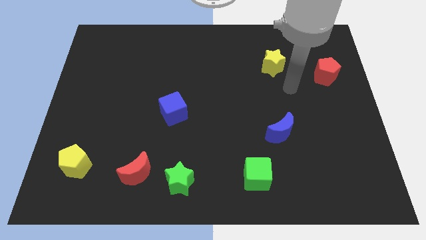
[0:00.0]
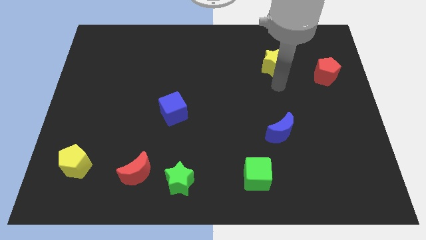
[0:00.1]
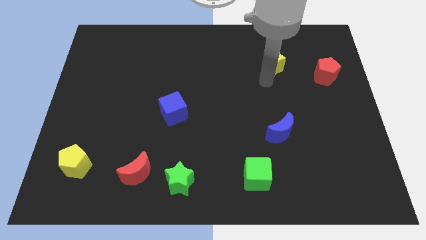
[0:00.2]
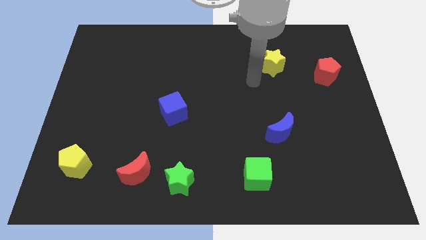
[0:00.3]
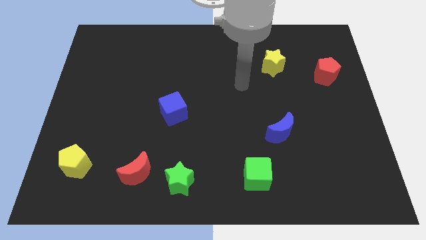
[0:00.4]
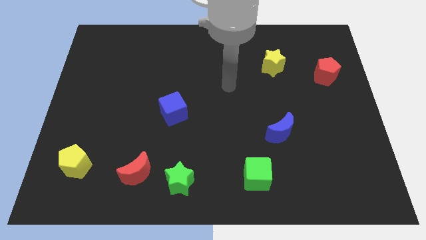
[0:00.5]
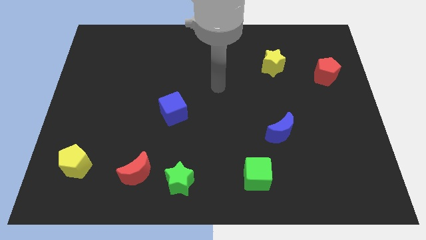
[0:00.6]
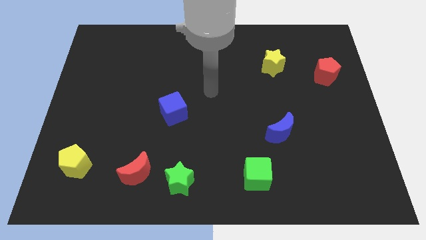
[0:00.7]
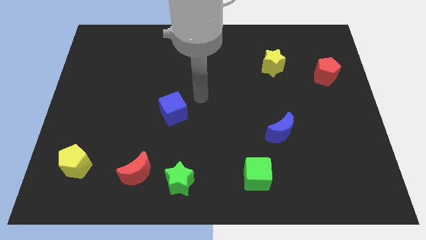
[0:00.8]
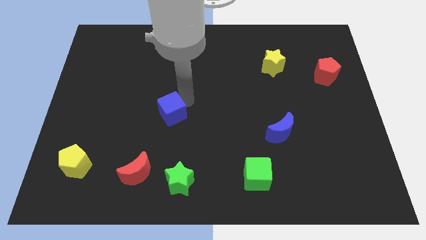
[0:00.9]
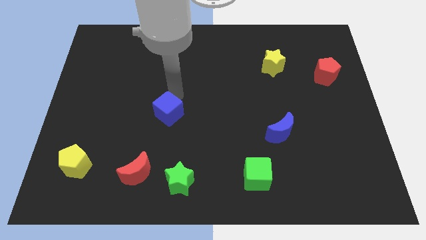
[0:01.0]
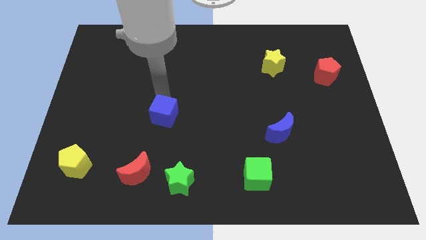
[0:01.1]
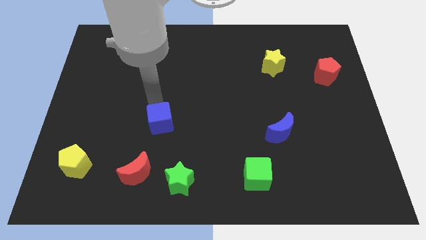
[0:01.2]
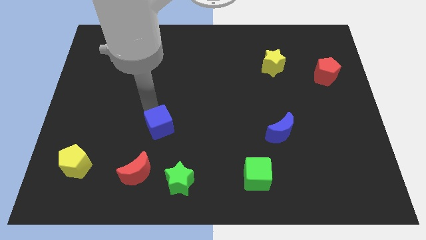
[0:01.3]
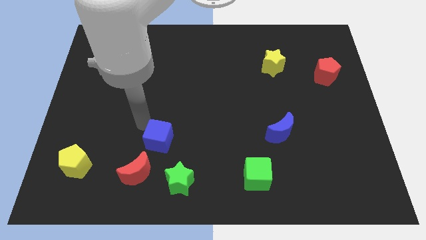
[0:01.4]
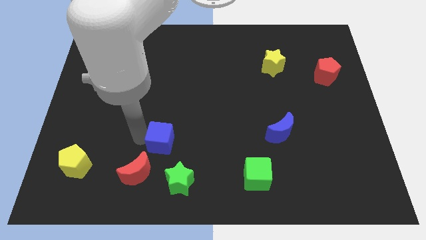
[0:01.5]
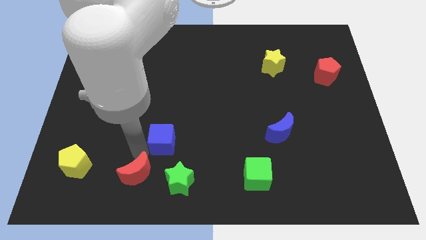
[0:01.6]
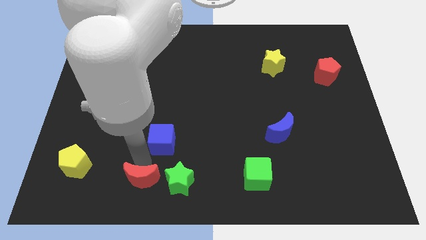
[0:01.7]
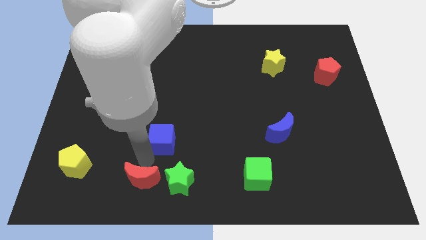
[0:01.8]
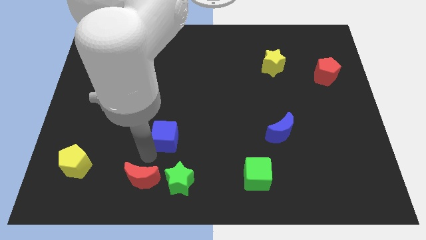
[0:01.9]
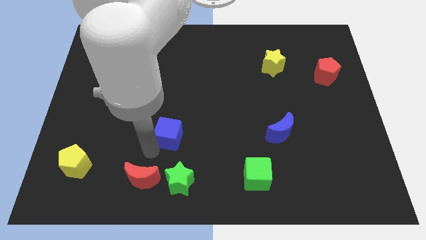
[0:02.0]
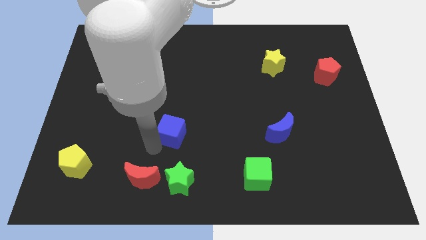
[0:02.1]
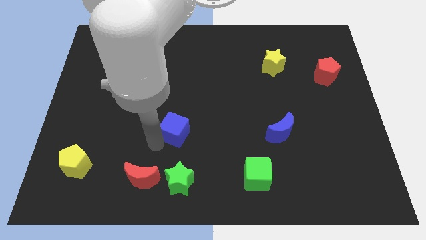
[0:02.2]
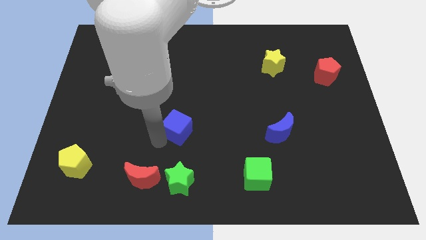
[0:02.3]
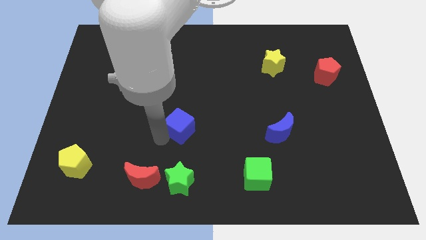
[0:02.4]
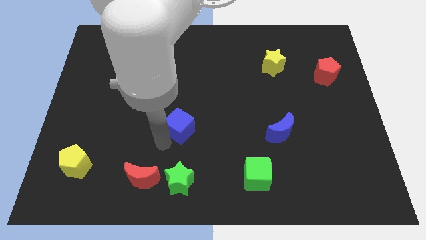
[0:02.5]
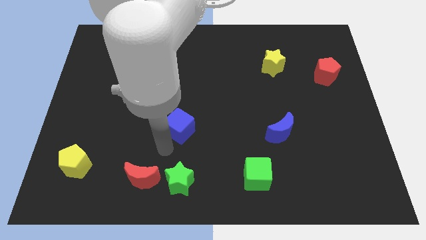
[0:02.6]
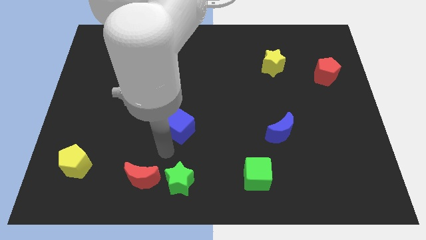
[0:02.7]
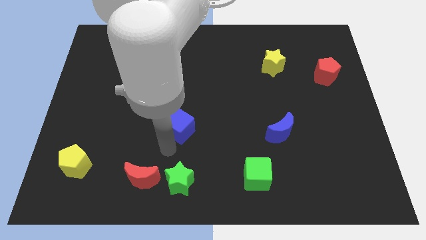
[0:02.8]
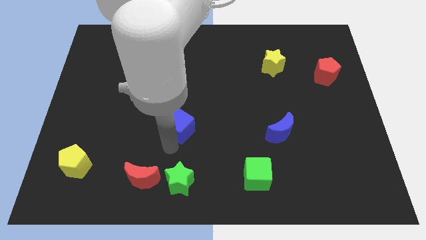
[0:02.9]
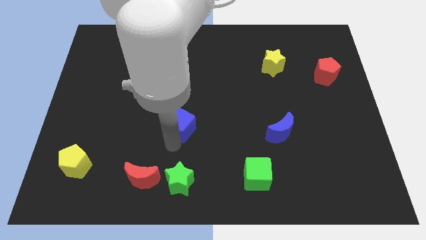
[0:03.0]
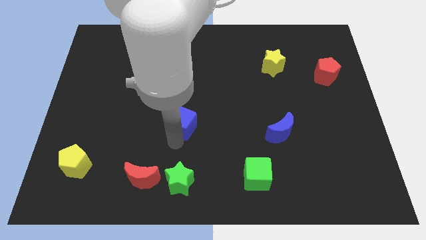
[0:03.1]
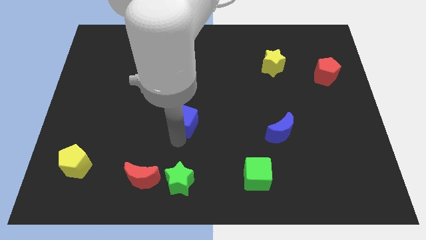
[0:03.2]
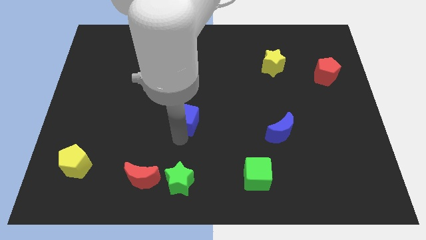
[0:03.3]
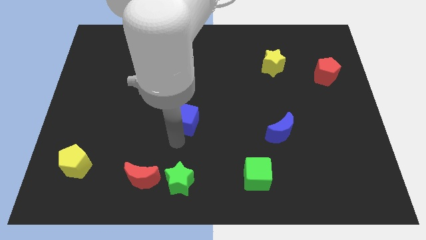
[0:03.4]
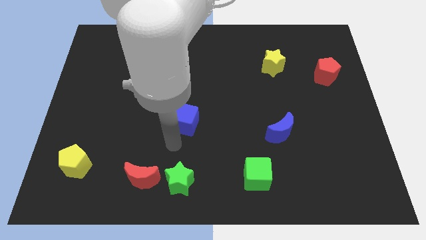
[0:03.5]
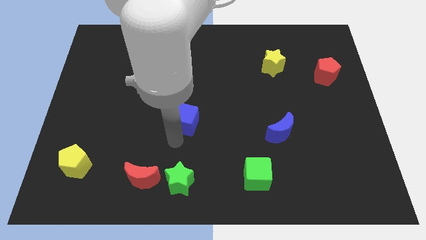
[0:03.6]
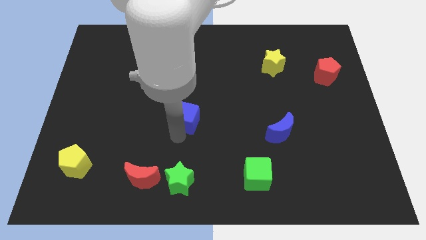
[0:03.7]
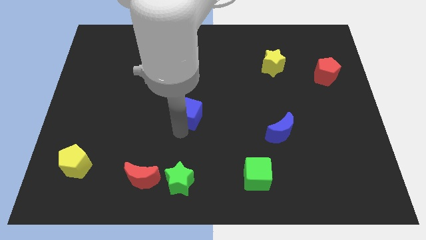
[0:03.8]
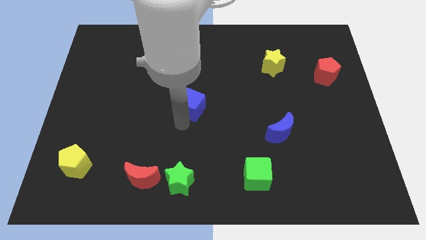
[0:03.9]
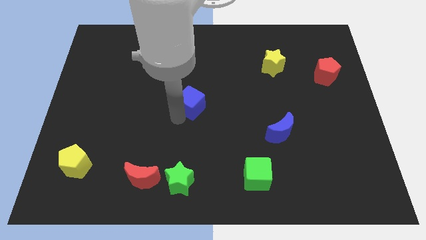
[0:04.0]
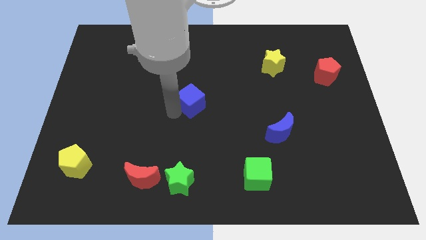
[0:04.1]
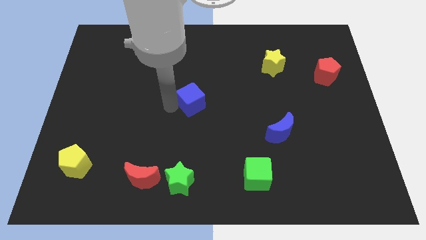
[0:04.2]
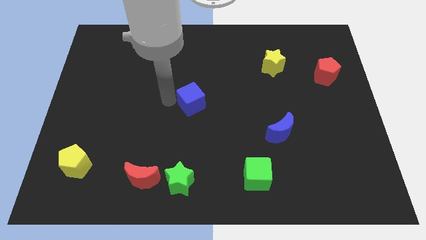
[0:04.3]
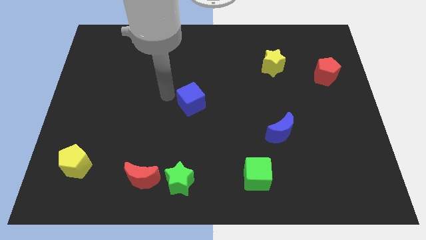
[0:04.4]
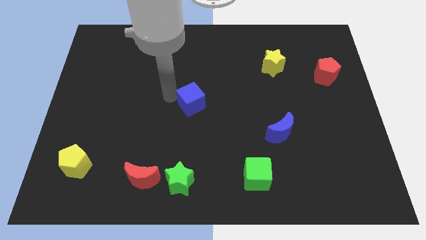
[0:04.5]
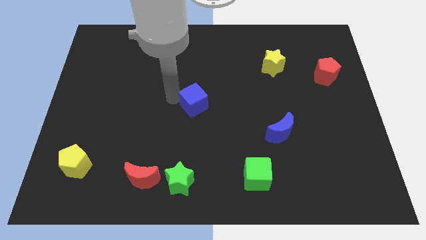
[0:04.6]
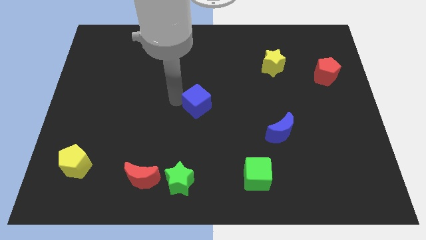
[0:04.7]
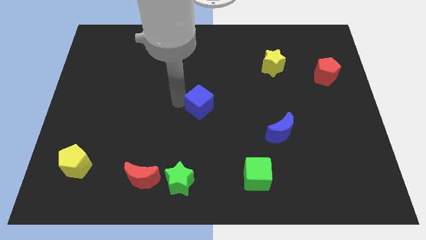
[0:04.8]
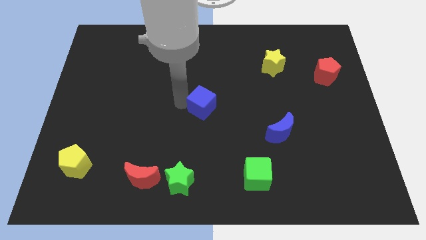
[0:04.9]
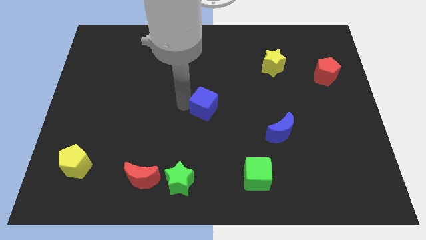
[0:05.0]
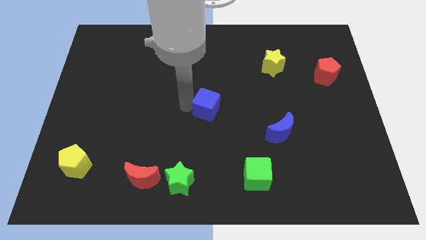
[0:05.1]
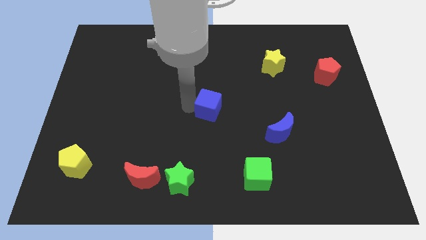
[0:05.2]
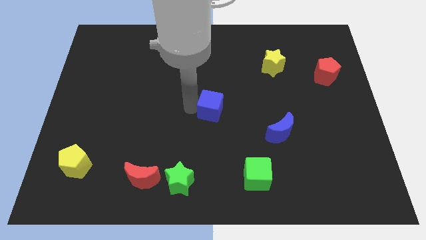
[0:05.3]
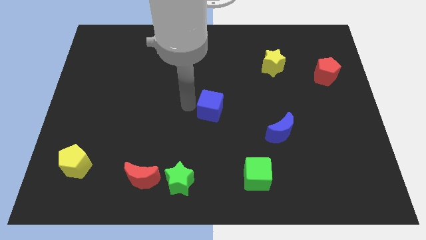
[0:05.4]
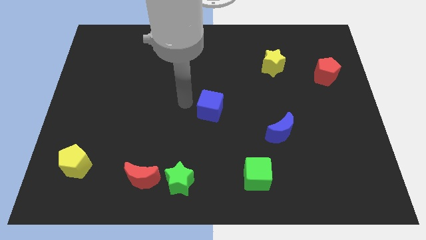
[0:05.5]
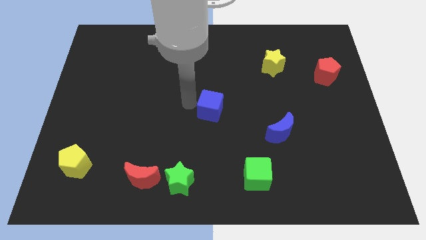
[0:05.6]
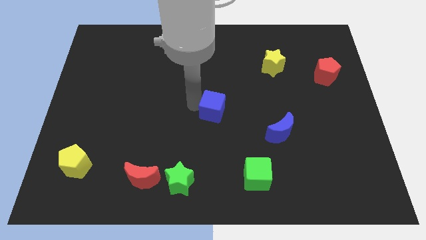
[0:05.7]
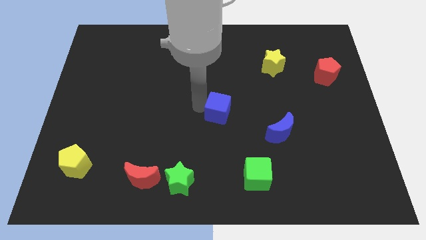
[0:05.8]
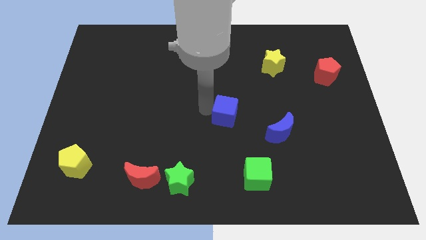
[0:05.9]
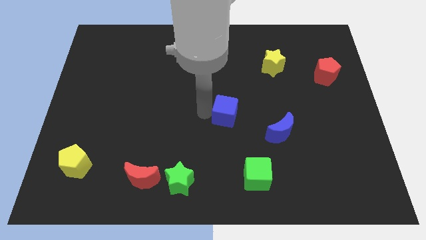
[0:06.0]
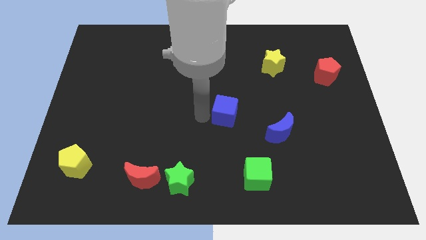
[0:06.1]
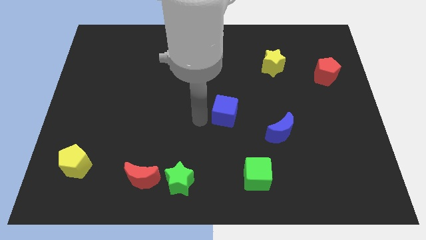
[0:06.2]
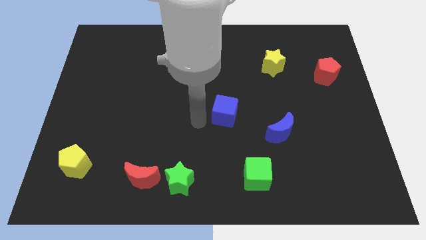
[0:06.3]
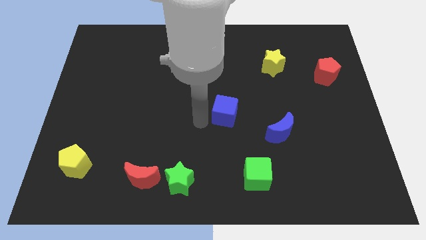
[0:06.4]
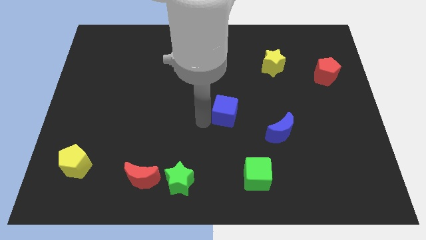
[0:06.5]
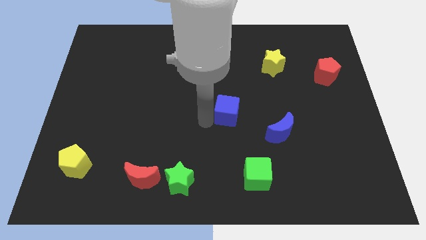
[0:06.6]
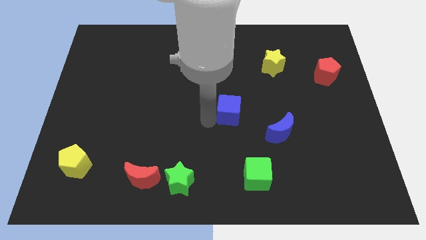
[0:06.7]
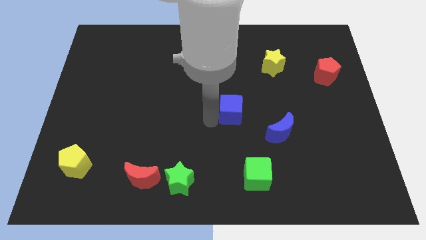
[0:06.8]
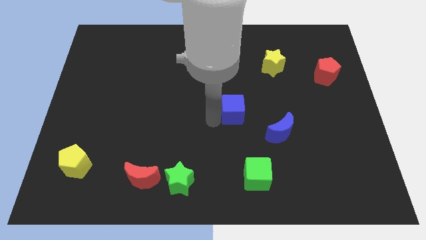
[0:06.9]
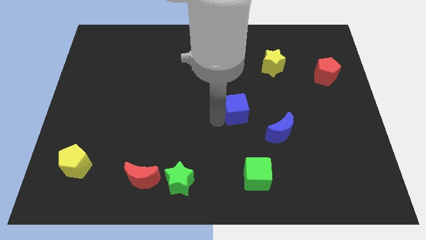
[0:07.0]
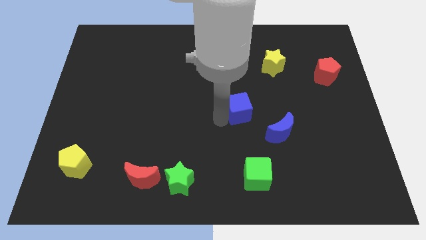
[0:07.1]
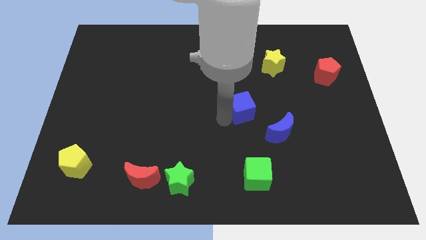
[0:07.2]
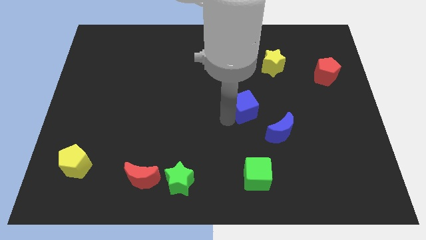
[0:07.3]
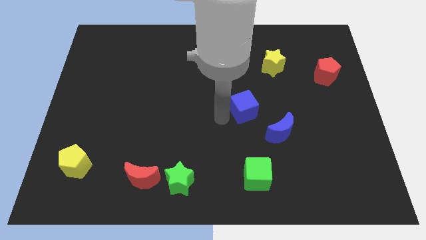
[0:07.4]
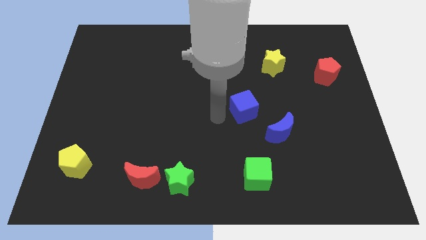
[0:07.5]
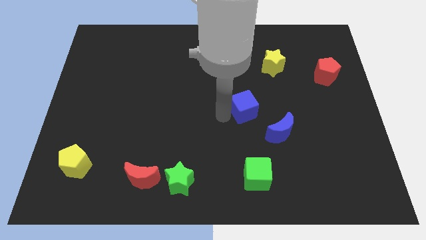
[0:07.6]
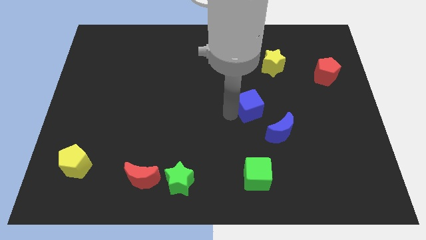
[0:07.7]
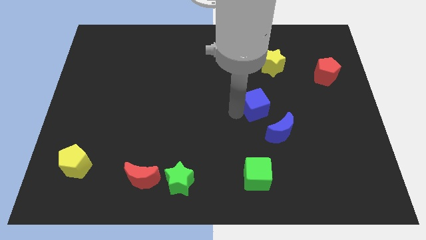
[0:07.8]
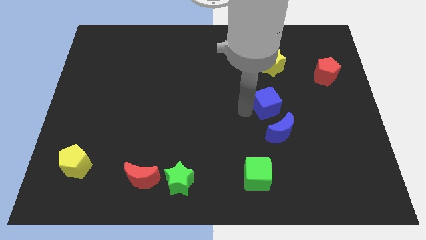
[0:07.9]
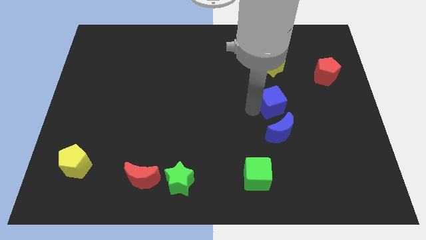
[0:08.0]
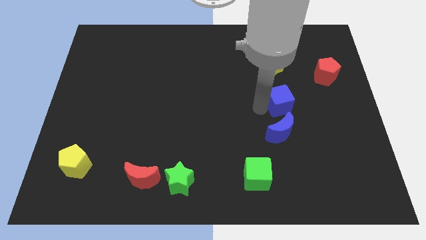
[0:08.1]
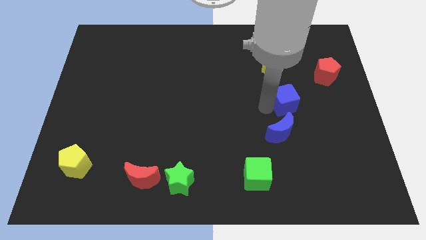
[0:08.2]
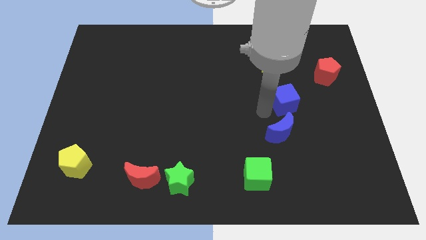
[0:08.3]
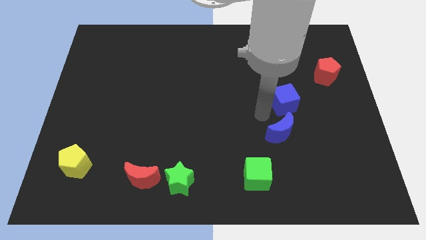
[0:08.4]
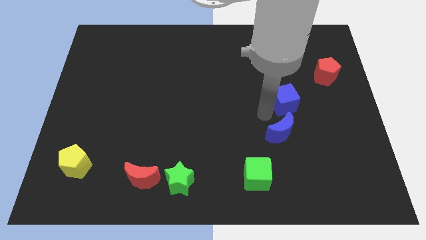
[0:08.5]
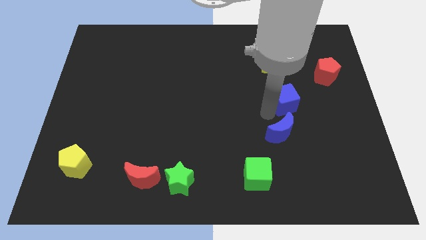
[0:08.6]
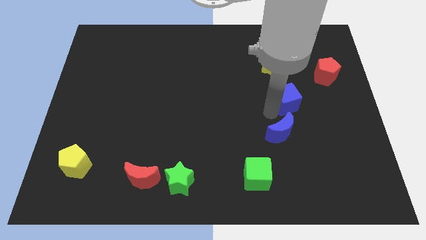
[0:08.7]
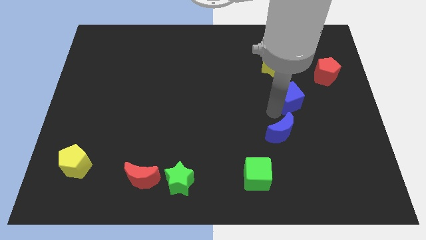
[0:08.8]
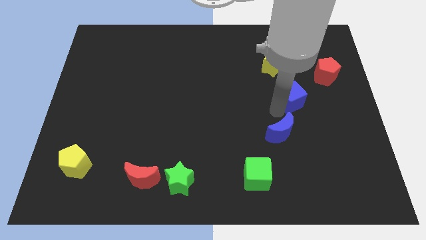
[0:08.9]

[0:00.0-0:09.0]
put the blue cube to the bottom left of the red pentagon
